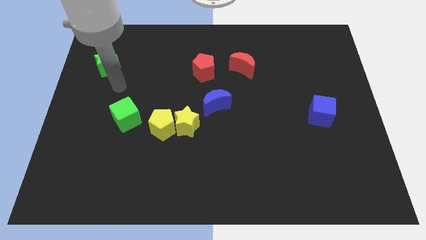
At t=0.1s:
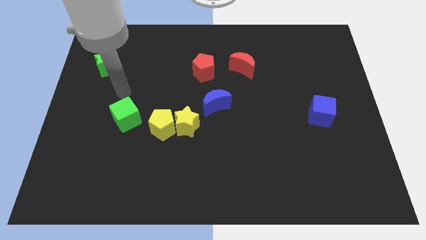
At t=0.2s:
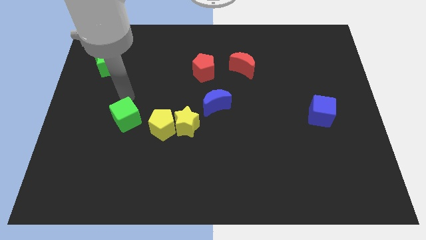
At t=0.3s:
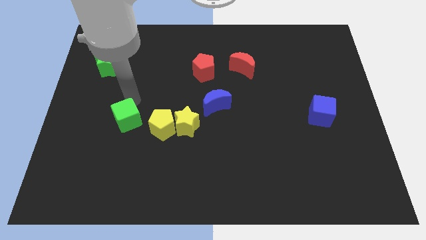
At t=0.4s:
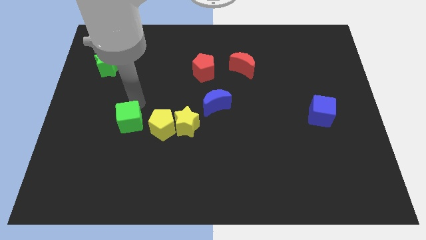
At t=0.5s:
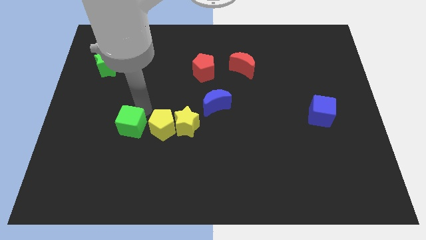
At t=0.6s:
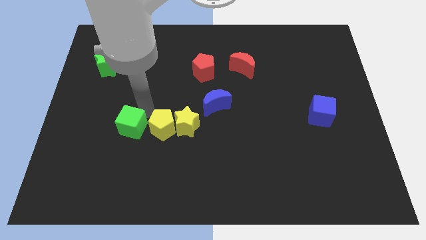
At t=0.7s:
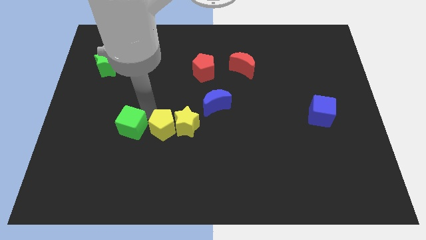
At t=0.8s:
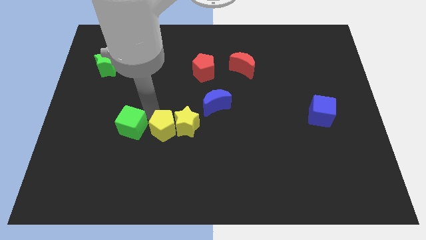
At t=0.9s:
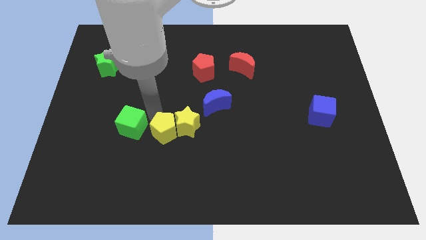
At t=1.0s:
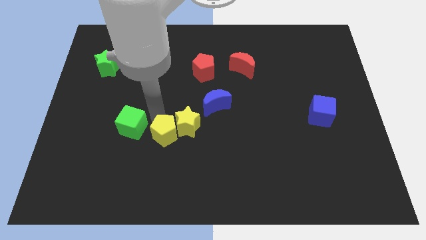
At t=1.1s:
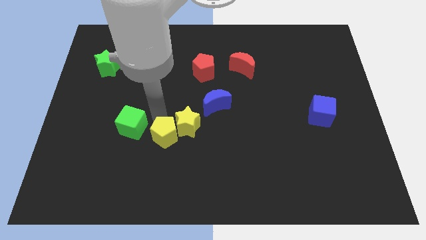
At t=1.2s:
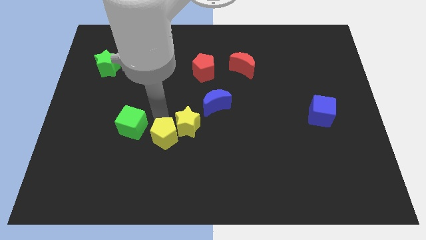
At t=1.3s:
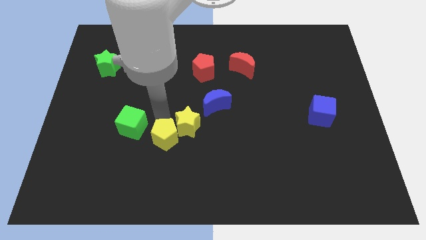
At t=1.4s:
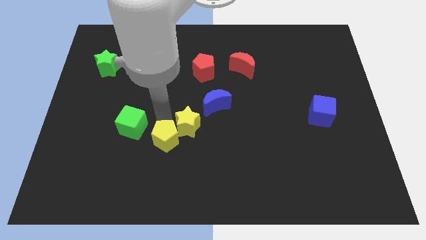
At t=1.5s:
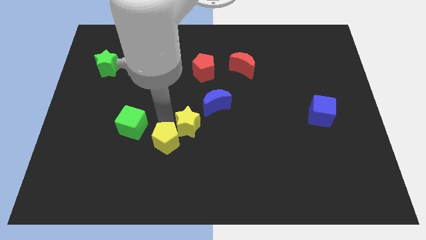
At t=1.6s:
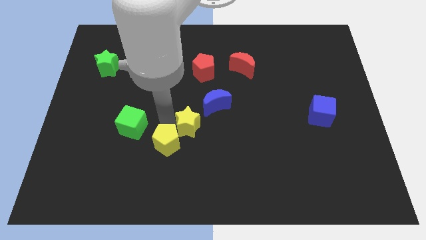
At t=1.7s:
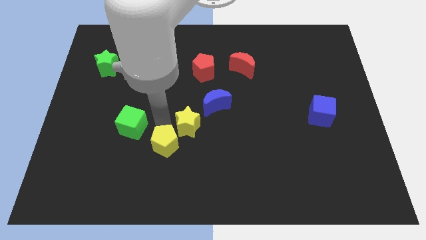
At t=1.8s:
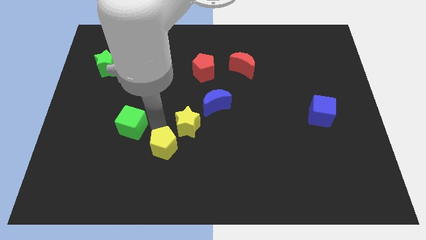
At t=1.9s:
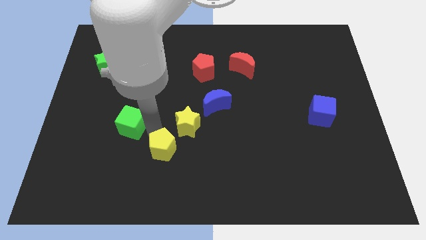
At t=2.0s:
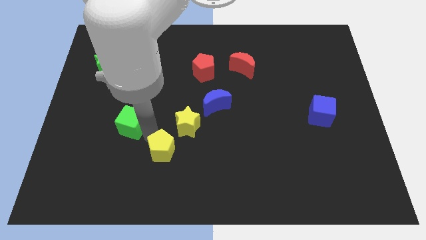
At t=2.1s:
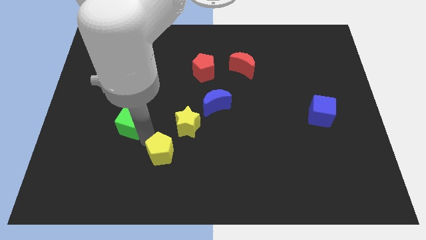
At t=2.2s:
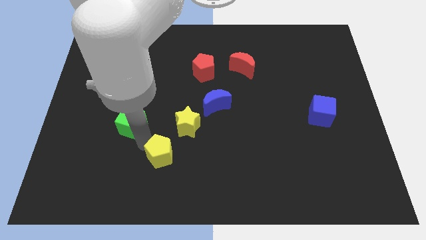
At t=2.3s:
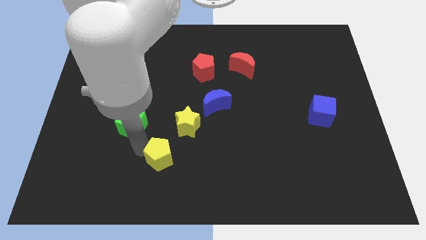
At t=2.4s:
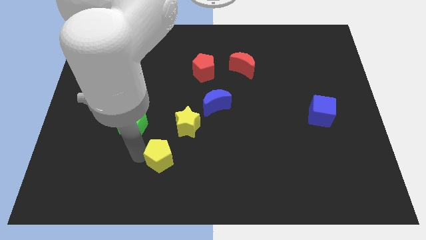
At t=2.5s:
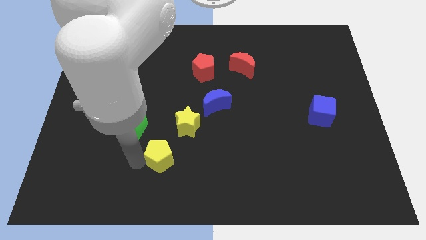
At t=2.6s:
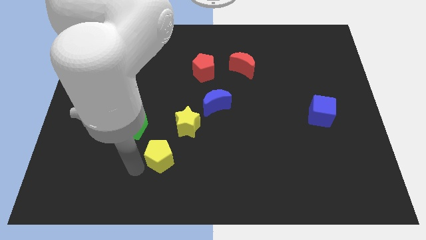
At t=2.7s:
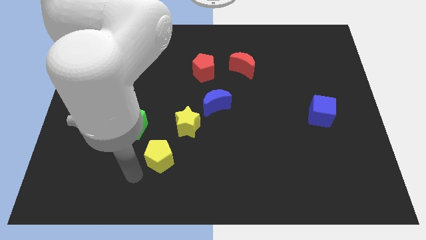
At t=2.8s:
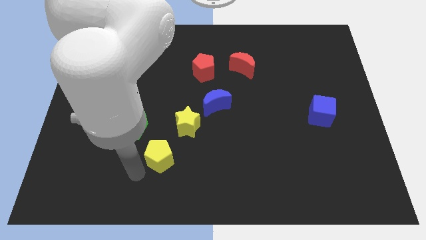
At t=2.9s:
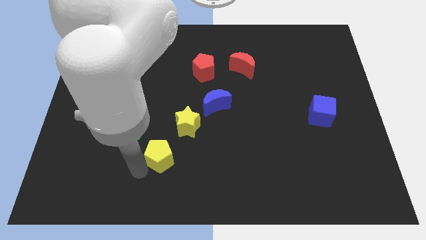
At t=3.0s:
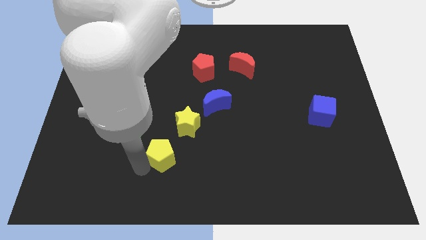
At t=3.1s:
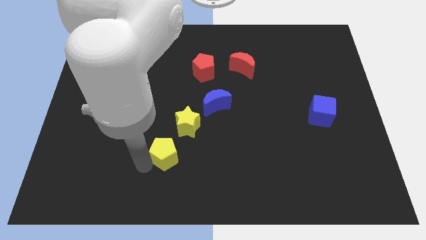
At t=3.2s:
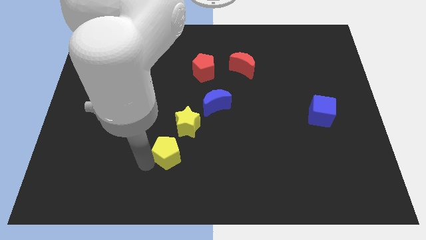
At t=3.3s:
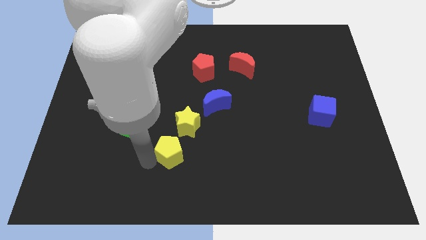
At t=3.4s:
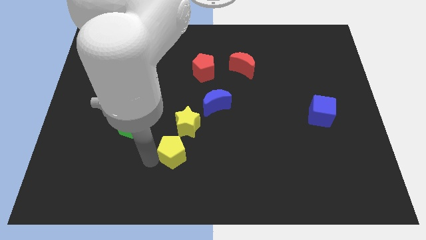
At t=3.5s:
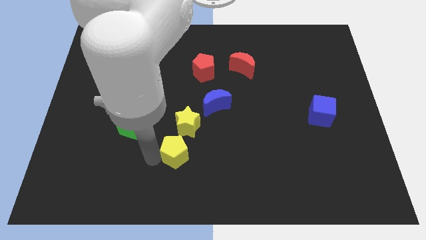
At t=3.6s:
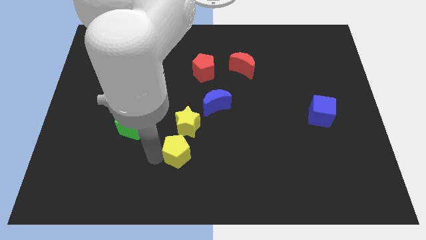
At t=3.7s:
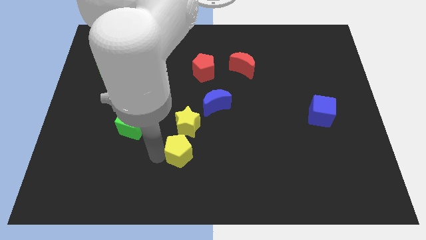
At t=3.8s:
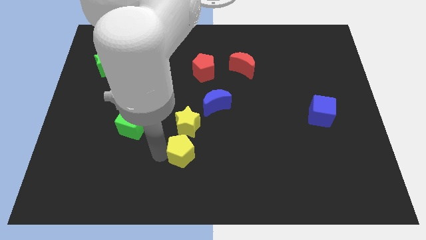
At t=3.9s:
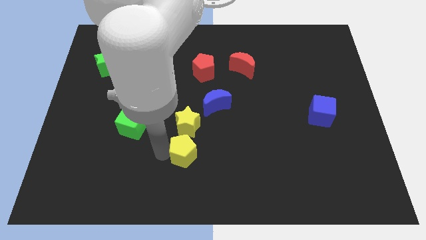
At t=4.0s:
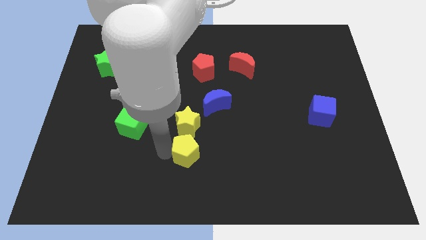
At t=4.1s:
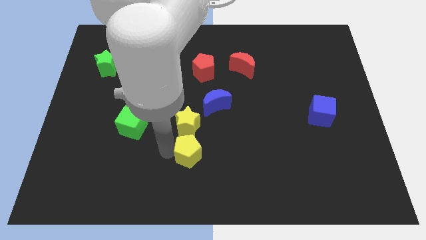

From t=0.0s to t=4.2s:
pull the yellow pentagon apart from the yellow star and green cube

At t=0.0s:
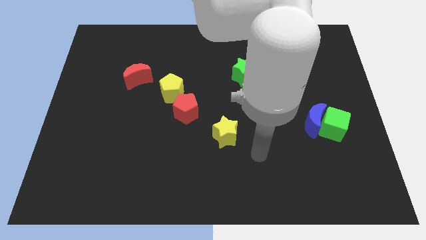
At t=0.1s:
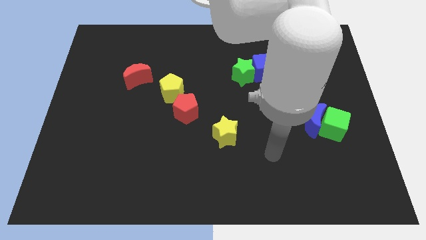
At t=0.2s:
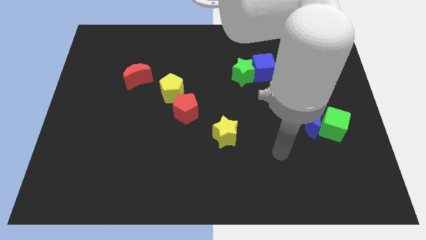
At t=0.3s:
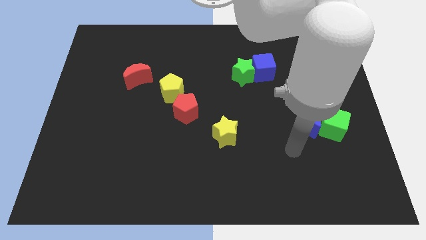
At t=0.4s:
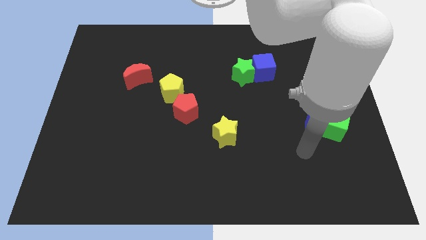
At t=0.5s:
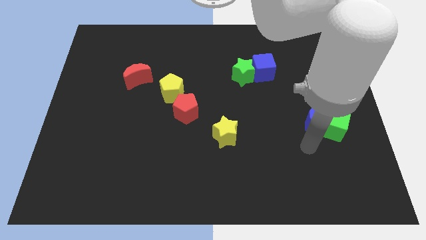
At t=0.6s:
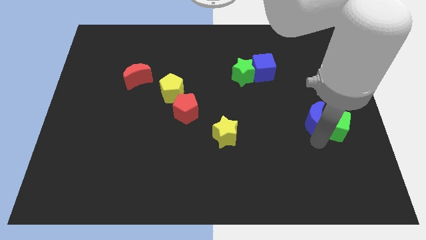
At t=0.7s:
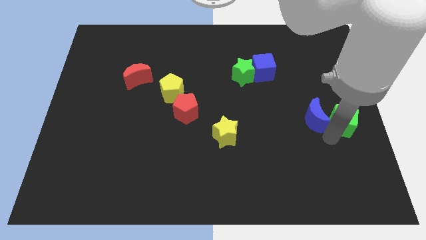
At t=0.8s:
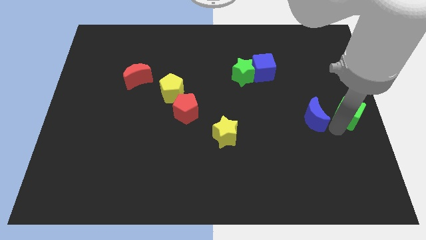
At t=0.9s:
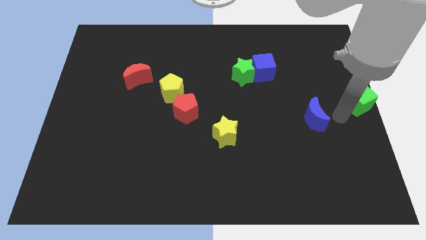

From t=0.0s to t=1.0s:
move the blue moon away from the green cube

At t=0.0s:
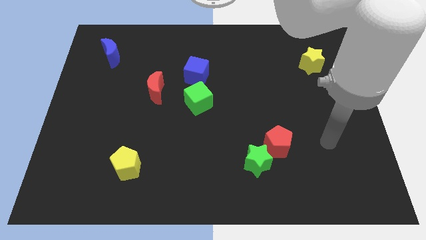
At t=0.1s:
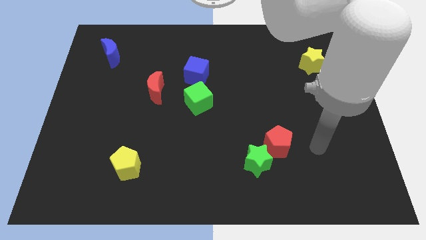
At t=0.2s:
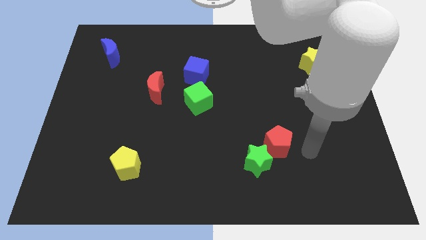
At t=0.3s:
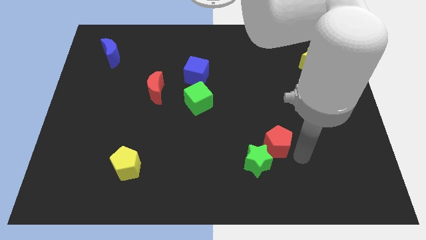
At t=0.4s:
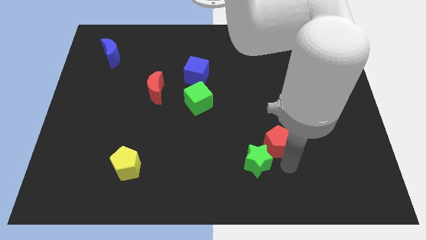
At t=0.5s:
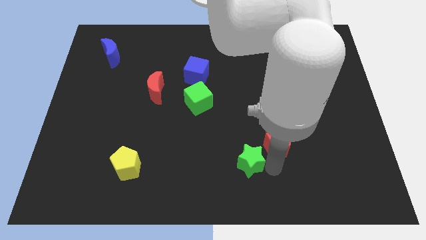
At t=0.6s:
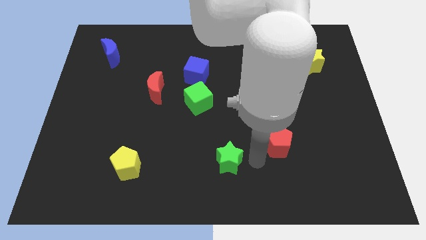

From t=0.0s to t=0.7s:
separate the red pentagon from the green star

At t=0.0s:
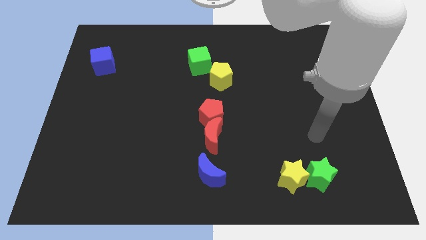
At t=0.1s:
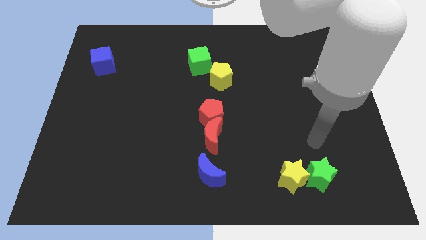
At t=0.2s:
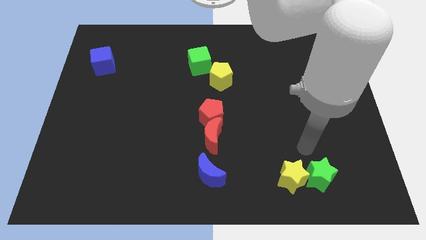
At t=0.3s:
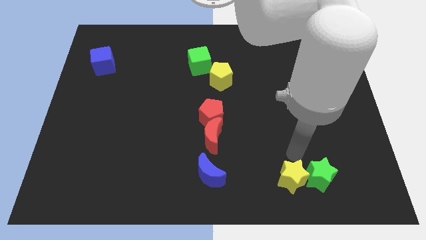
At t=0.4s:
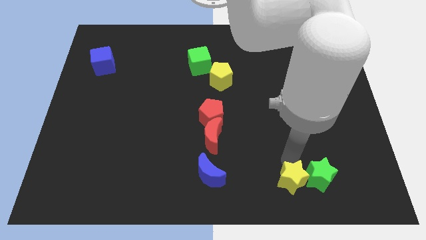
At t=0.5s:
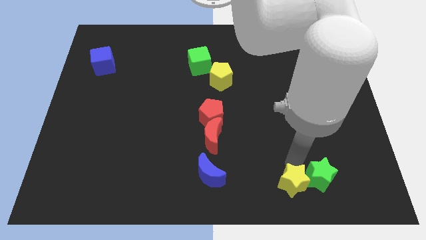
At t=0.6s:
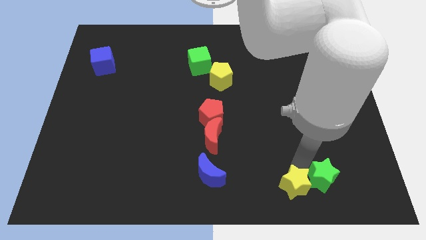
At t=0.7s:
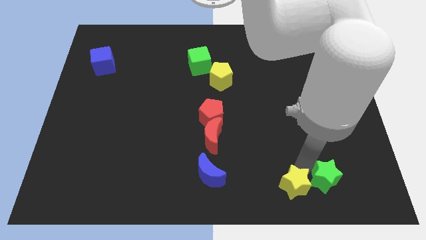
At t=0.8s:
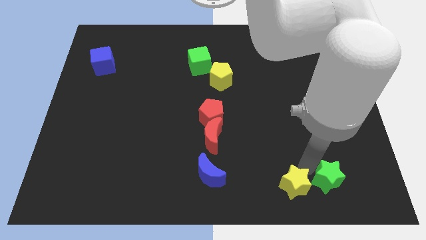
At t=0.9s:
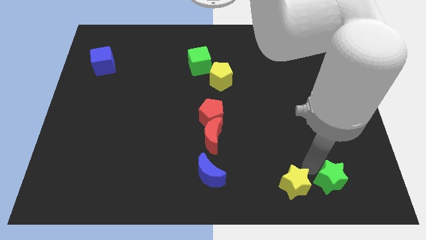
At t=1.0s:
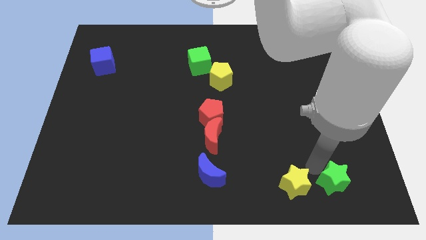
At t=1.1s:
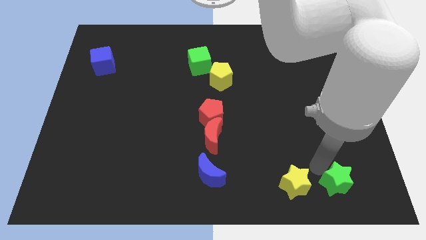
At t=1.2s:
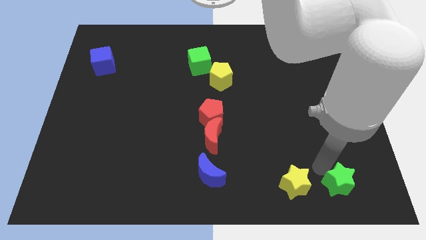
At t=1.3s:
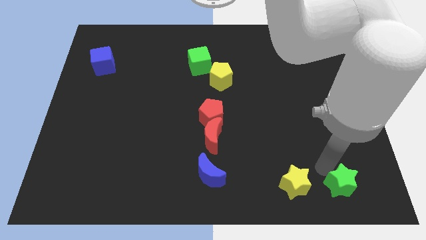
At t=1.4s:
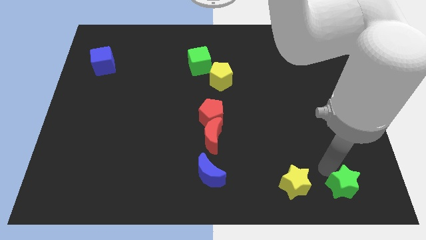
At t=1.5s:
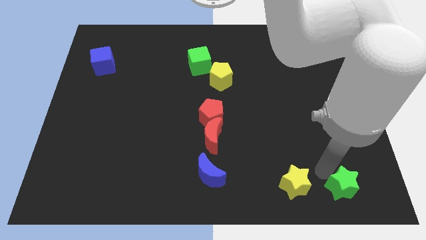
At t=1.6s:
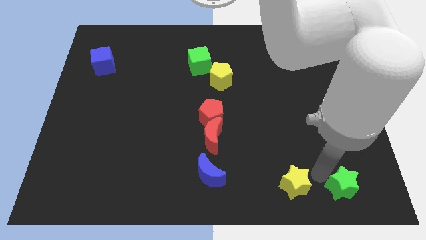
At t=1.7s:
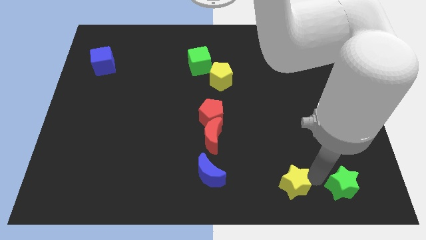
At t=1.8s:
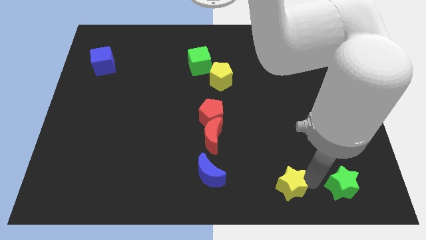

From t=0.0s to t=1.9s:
pull the green star apart from the yellow star

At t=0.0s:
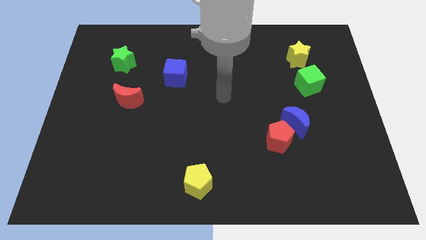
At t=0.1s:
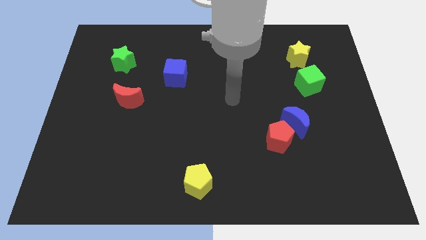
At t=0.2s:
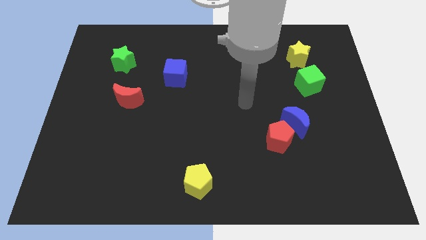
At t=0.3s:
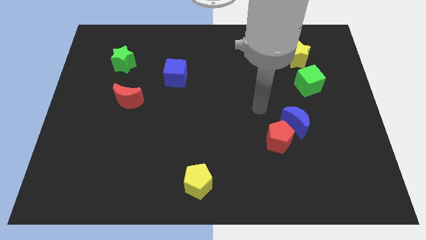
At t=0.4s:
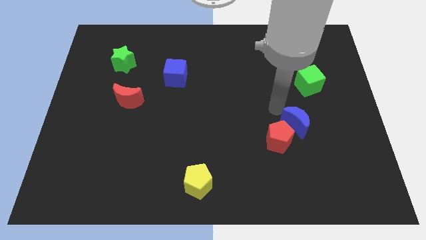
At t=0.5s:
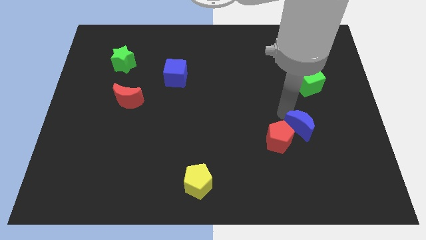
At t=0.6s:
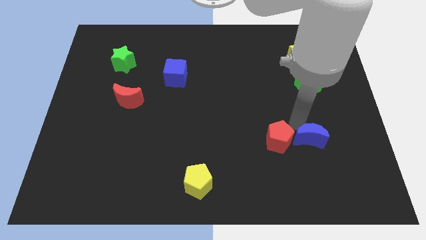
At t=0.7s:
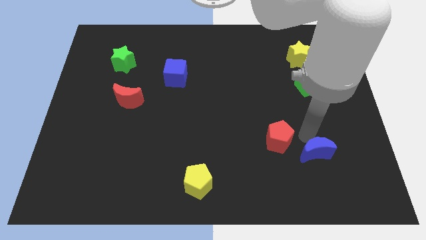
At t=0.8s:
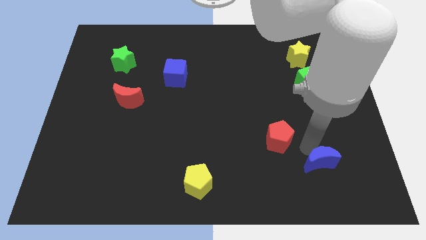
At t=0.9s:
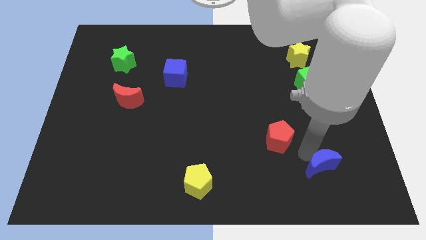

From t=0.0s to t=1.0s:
separate the red pentagon from the blue moon

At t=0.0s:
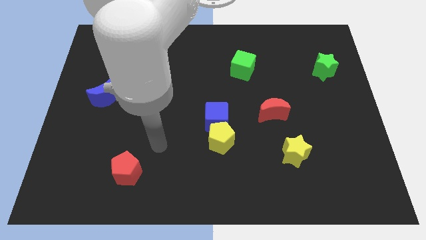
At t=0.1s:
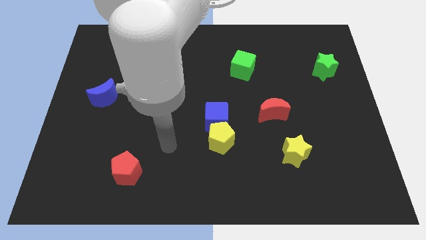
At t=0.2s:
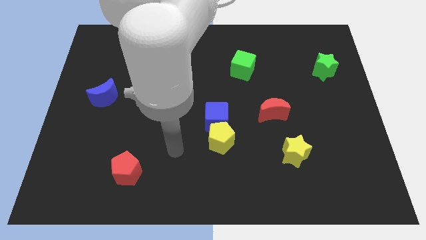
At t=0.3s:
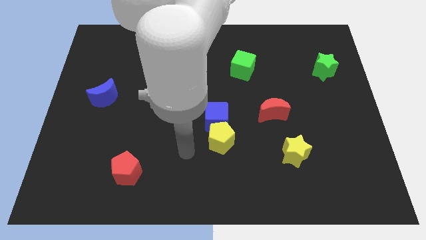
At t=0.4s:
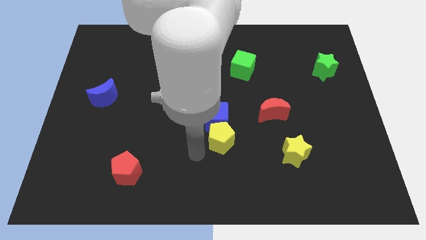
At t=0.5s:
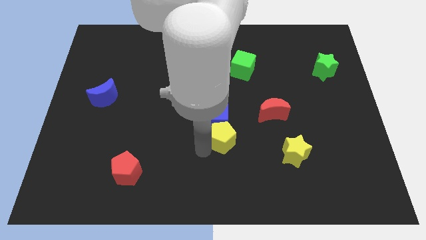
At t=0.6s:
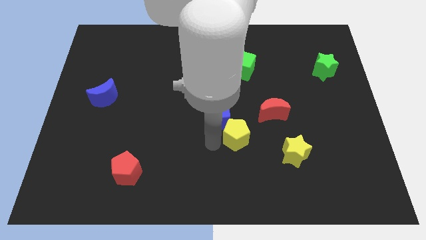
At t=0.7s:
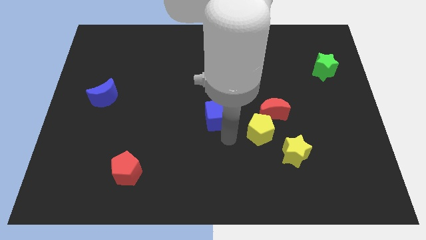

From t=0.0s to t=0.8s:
move the blue cube away from the yellow pentagon
